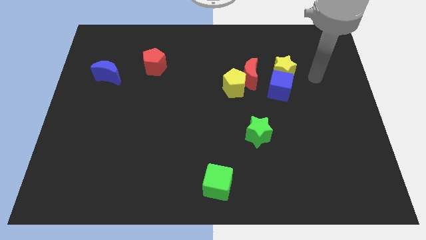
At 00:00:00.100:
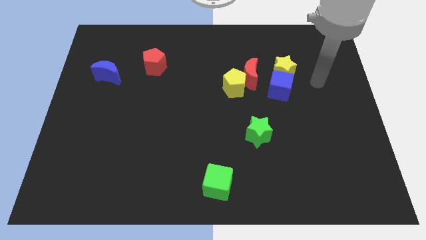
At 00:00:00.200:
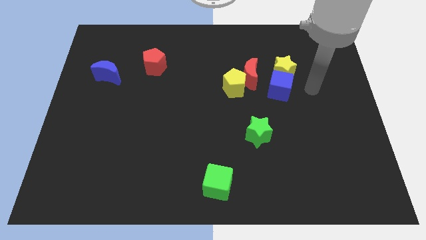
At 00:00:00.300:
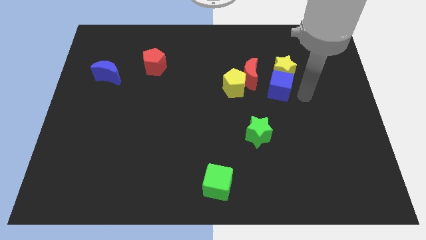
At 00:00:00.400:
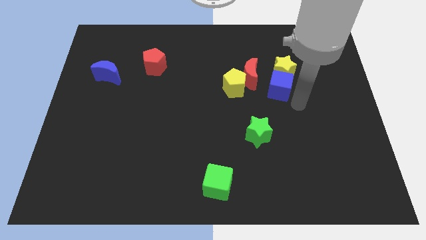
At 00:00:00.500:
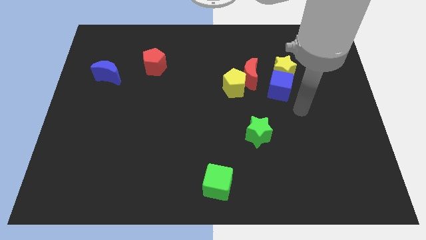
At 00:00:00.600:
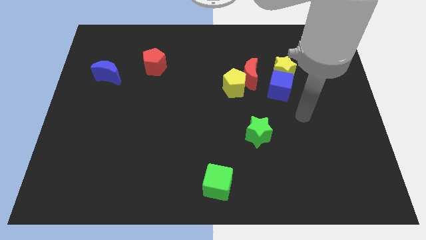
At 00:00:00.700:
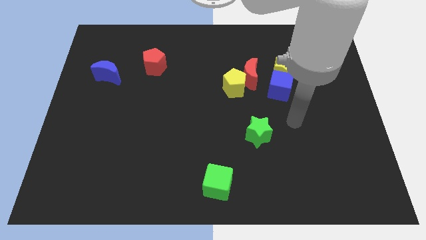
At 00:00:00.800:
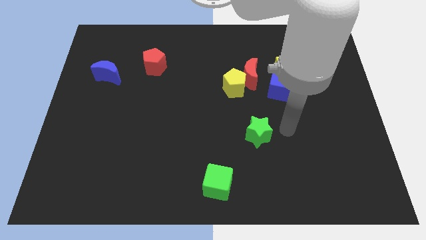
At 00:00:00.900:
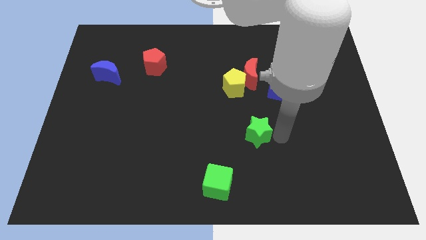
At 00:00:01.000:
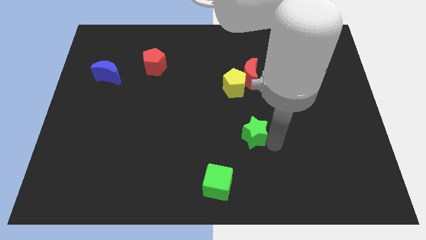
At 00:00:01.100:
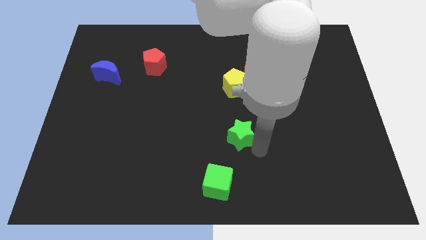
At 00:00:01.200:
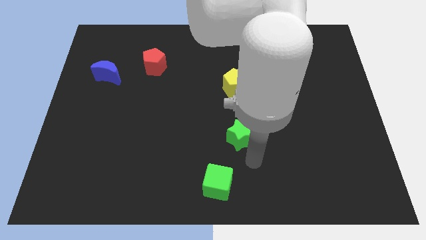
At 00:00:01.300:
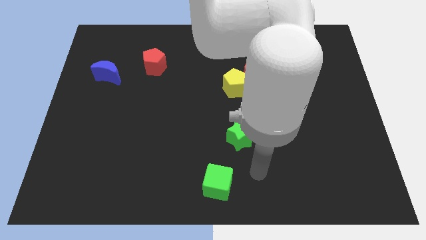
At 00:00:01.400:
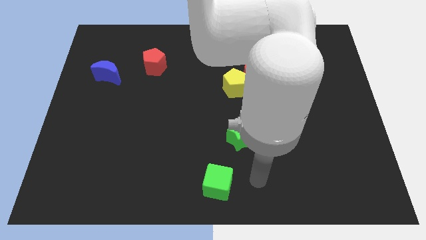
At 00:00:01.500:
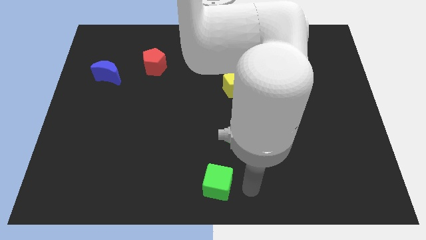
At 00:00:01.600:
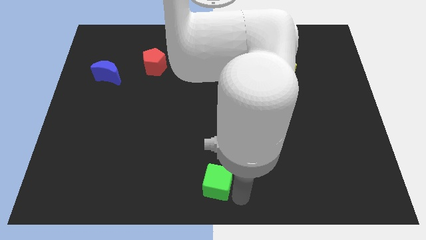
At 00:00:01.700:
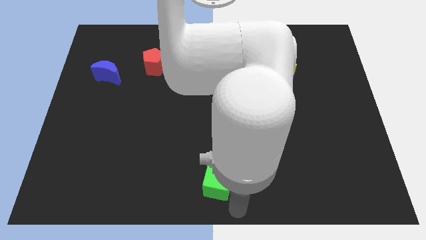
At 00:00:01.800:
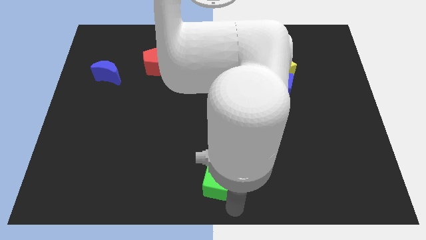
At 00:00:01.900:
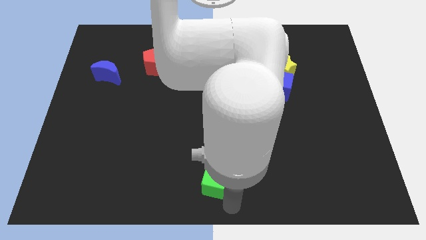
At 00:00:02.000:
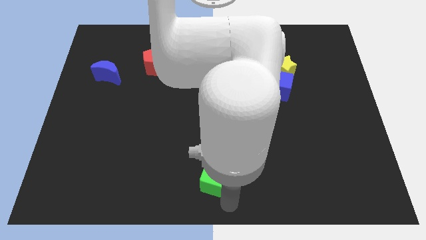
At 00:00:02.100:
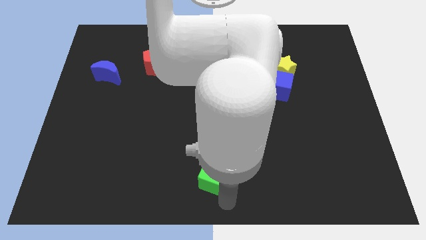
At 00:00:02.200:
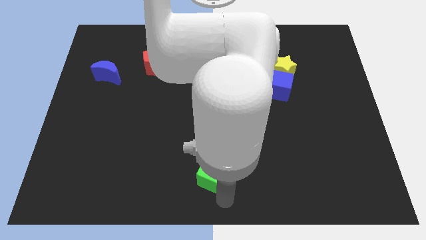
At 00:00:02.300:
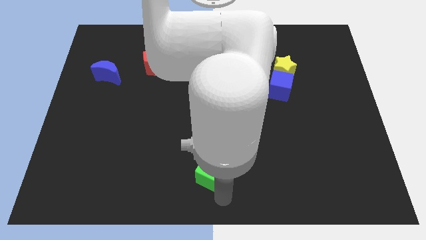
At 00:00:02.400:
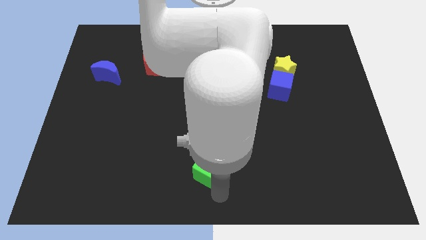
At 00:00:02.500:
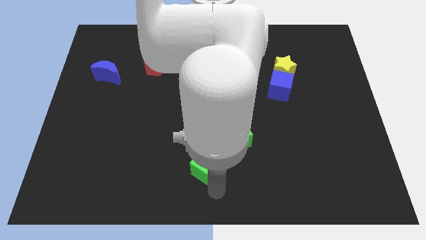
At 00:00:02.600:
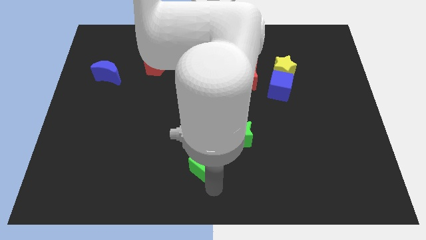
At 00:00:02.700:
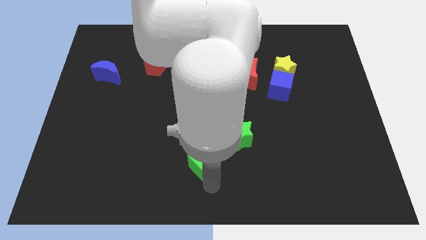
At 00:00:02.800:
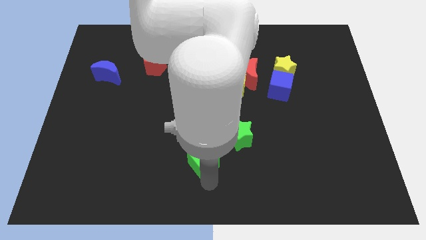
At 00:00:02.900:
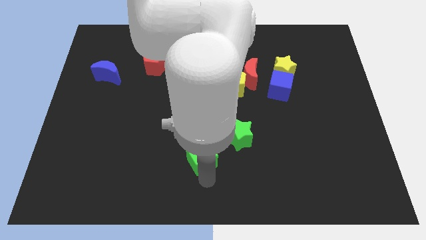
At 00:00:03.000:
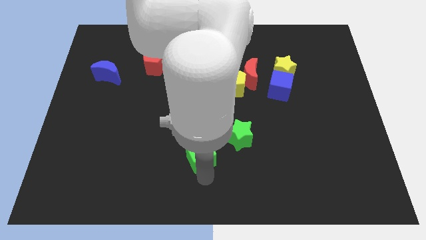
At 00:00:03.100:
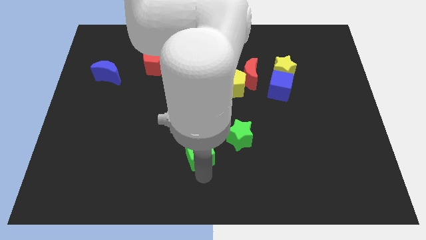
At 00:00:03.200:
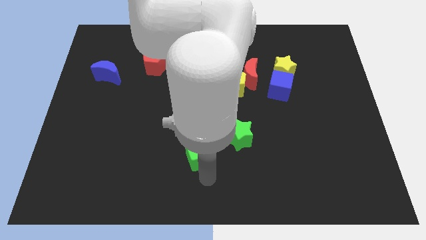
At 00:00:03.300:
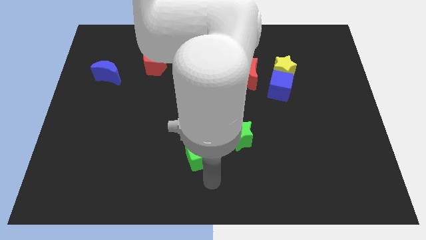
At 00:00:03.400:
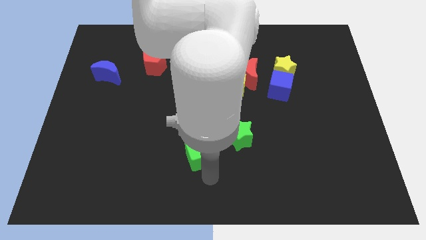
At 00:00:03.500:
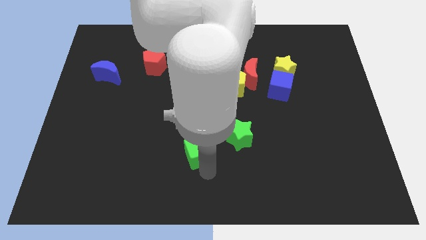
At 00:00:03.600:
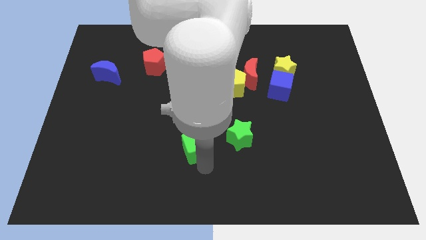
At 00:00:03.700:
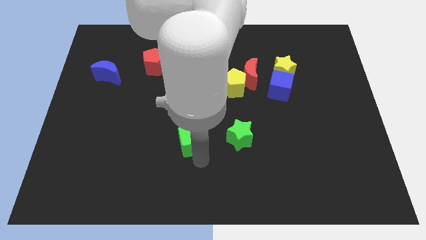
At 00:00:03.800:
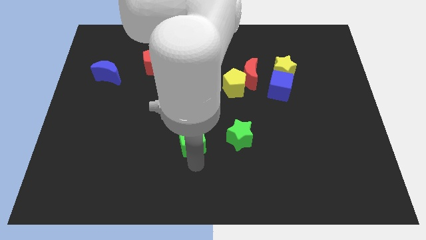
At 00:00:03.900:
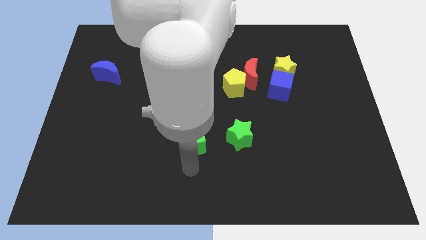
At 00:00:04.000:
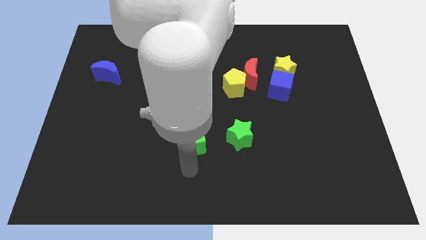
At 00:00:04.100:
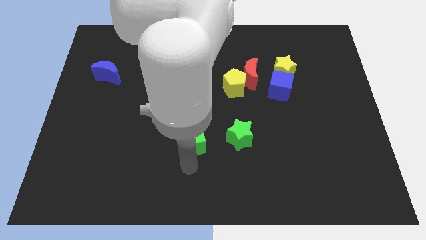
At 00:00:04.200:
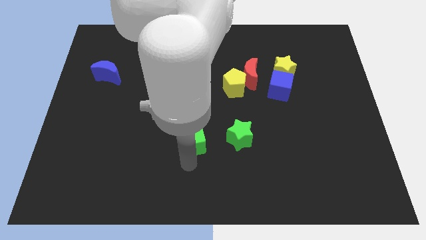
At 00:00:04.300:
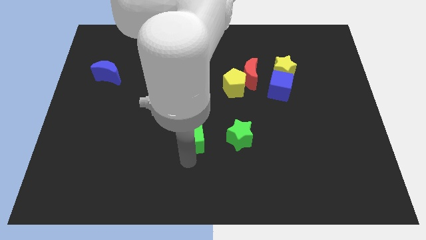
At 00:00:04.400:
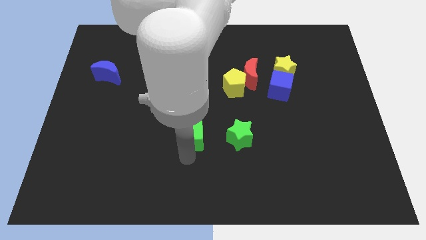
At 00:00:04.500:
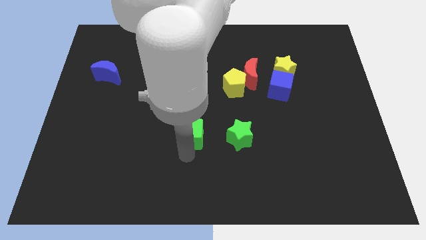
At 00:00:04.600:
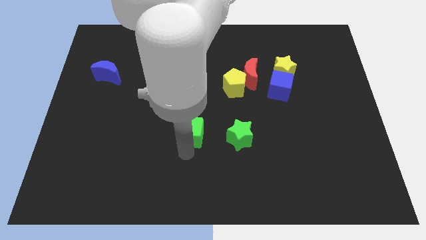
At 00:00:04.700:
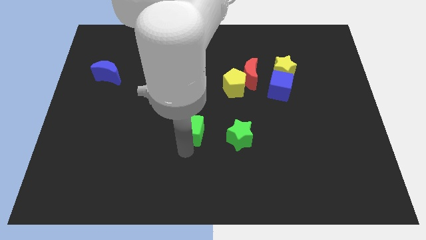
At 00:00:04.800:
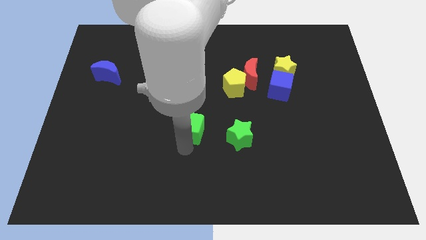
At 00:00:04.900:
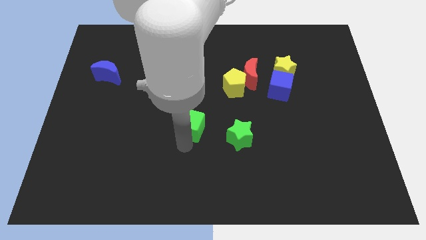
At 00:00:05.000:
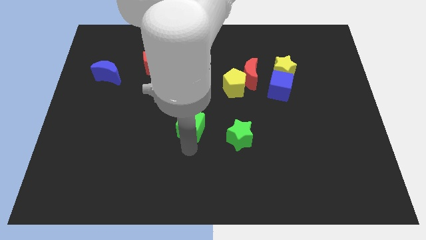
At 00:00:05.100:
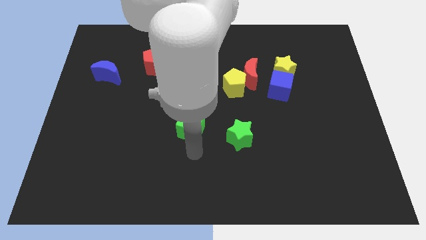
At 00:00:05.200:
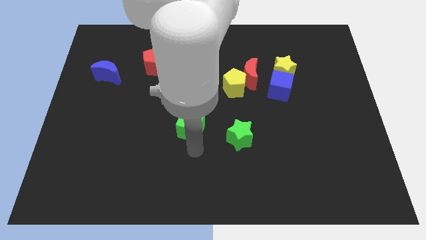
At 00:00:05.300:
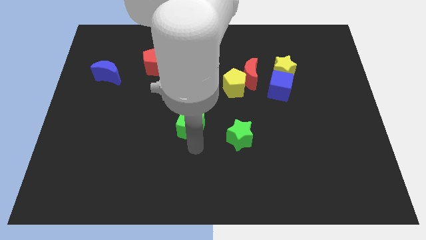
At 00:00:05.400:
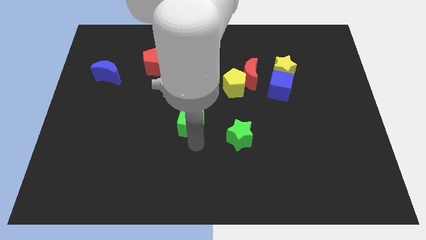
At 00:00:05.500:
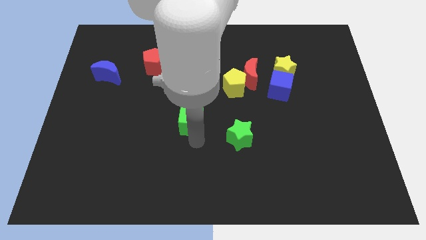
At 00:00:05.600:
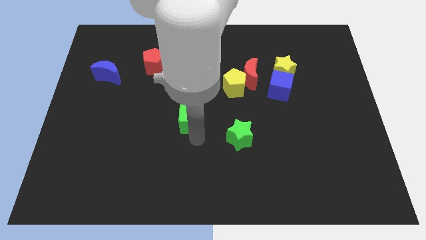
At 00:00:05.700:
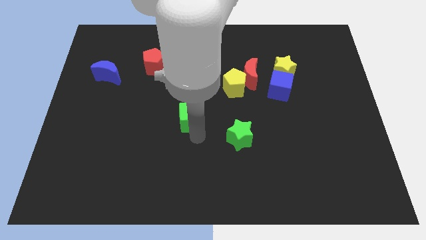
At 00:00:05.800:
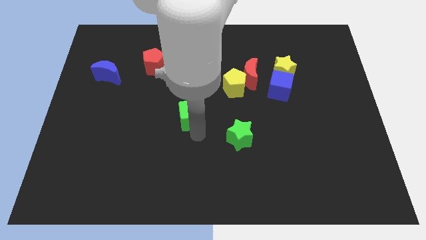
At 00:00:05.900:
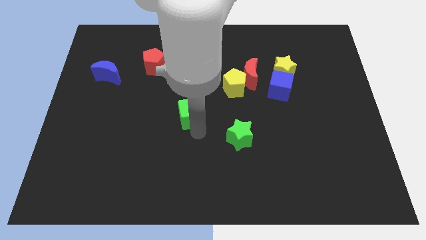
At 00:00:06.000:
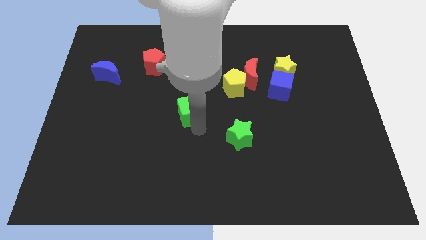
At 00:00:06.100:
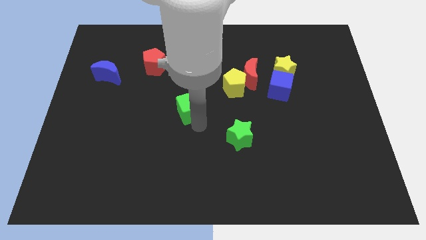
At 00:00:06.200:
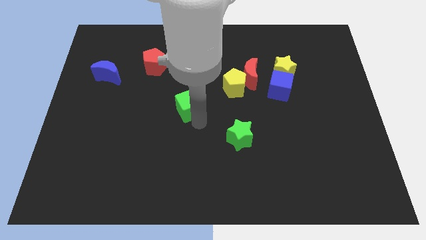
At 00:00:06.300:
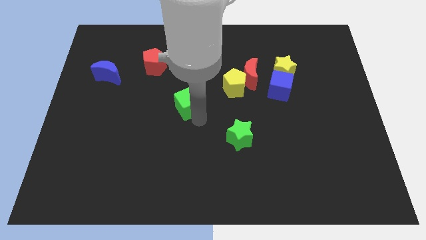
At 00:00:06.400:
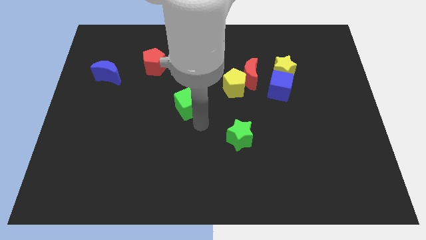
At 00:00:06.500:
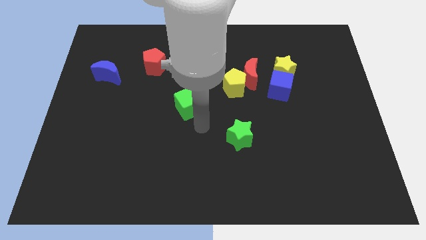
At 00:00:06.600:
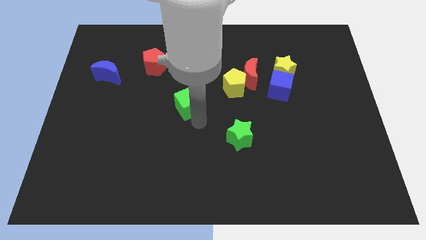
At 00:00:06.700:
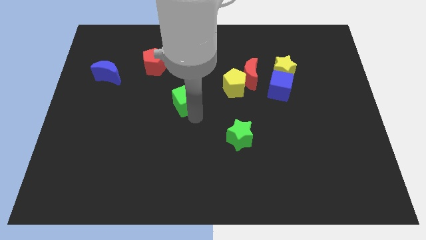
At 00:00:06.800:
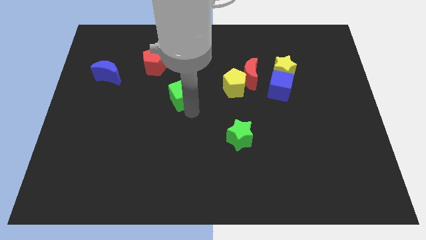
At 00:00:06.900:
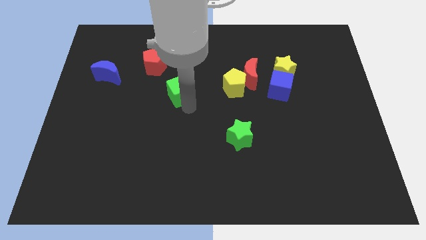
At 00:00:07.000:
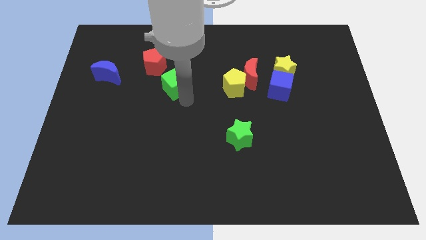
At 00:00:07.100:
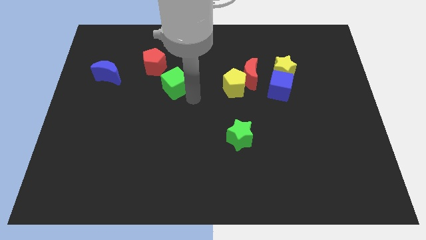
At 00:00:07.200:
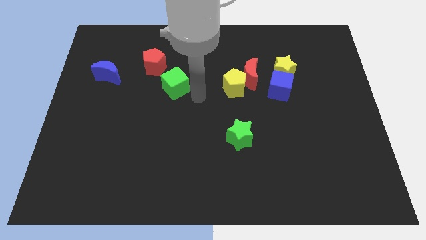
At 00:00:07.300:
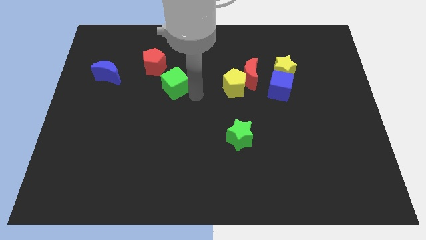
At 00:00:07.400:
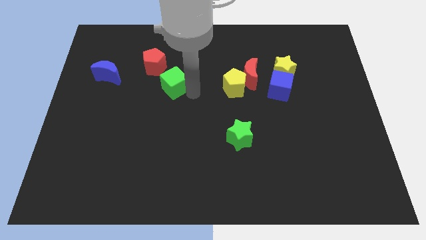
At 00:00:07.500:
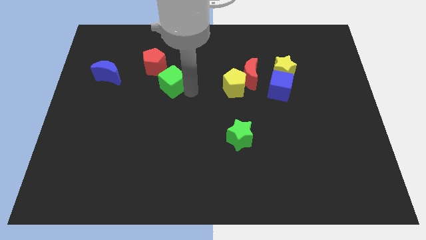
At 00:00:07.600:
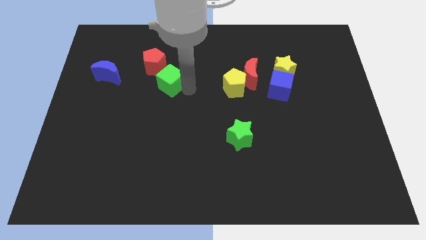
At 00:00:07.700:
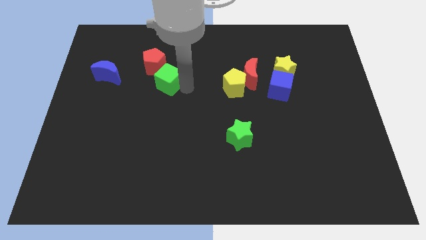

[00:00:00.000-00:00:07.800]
slide the green cube to the right of the blue moon

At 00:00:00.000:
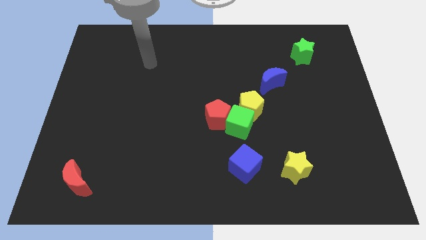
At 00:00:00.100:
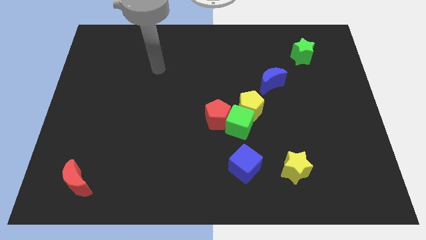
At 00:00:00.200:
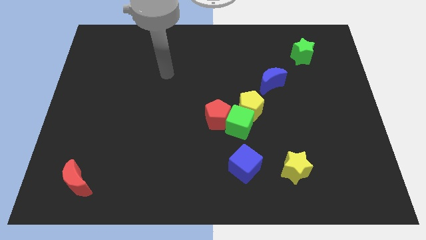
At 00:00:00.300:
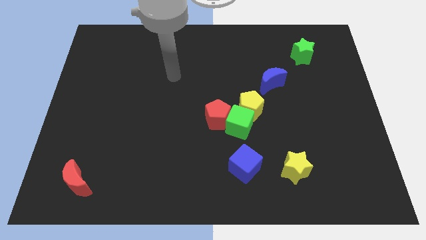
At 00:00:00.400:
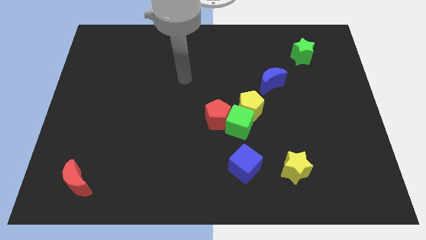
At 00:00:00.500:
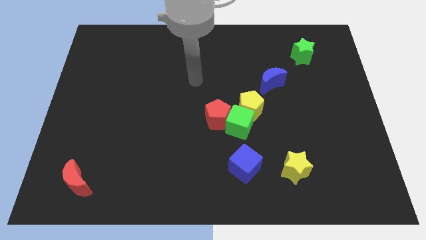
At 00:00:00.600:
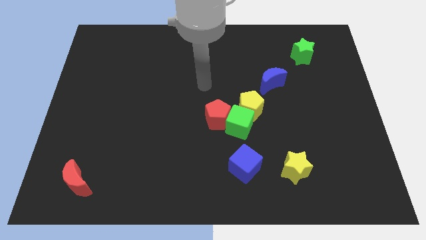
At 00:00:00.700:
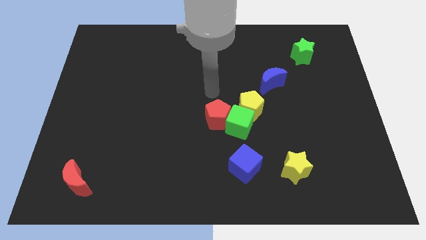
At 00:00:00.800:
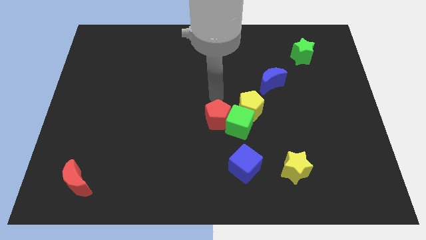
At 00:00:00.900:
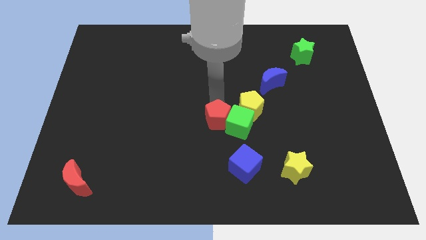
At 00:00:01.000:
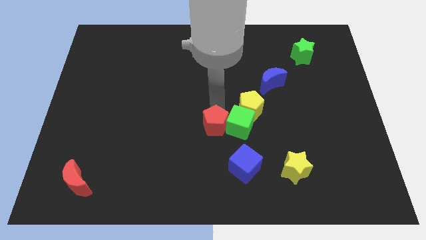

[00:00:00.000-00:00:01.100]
slide the red pentagon to the top left side of the blue cube
